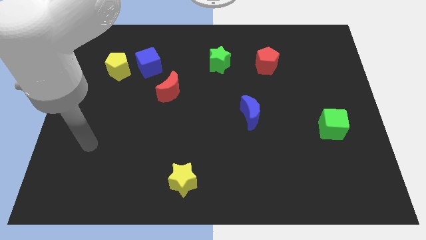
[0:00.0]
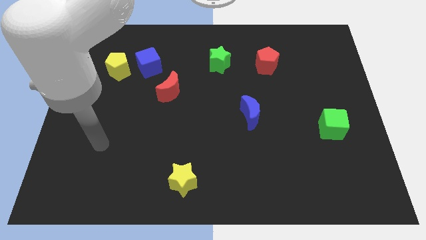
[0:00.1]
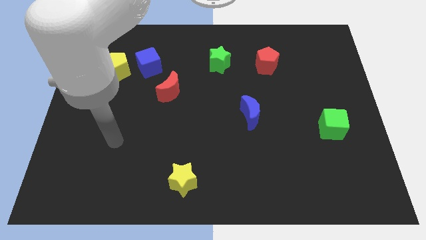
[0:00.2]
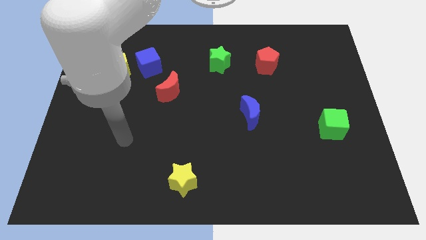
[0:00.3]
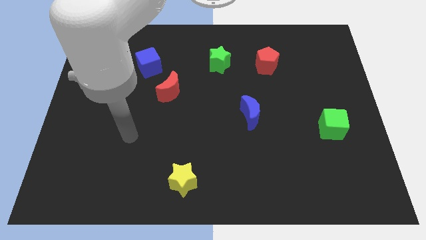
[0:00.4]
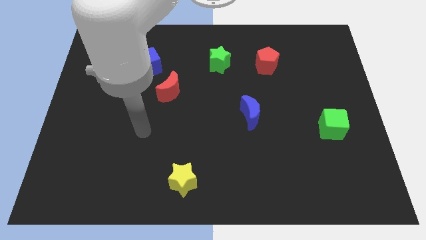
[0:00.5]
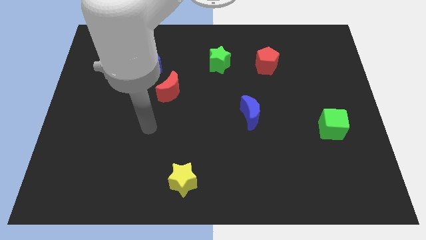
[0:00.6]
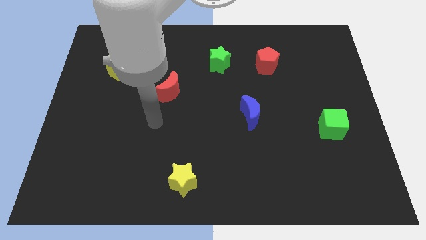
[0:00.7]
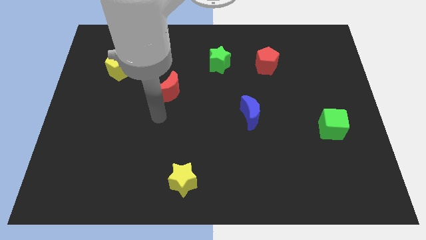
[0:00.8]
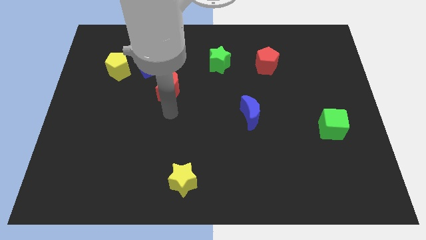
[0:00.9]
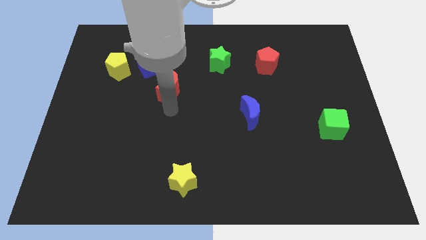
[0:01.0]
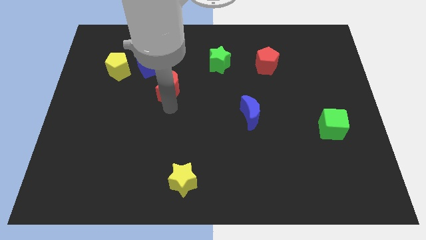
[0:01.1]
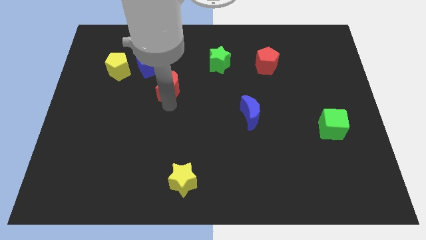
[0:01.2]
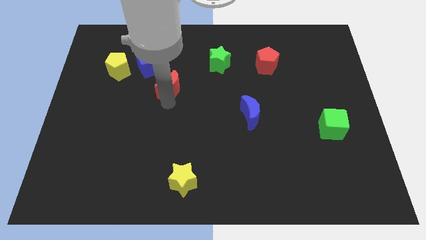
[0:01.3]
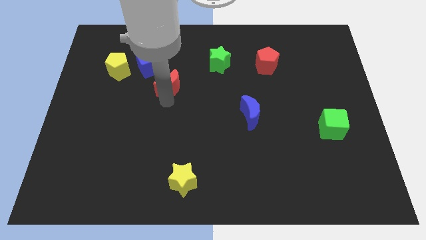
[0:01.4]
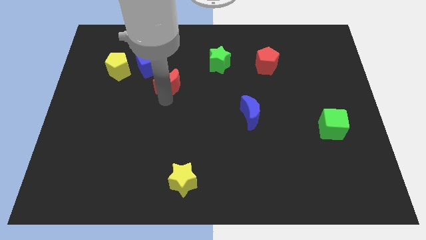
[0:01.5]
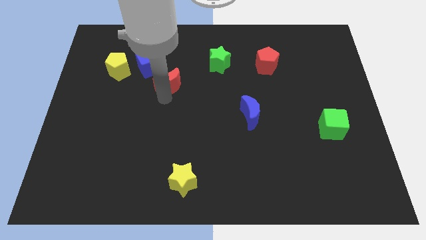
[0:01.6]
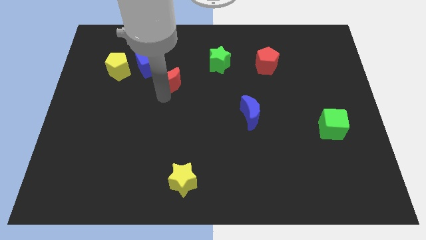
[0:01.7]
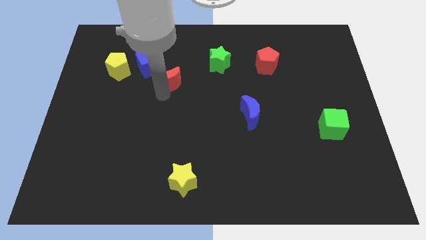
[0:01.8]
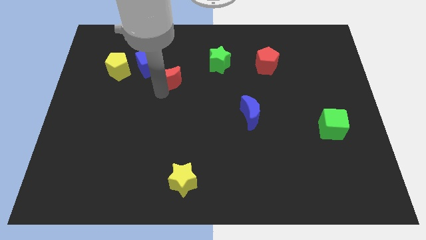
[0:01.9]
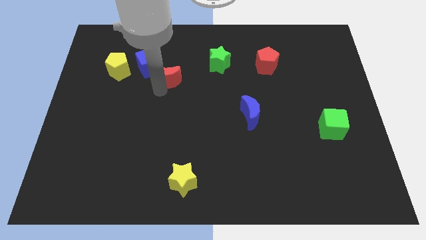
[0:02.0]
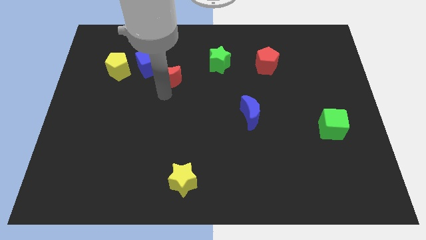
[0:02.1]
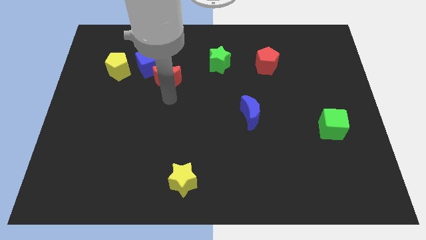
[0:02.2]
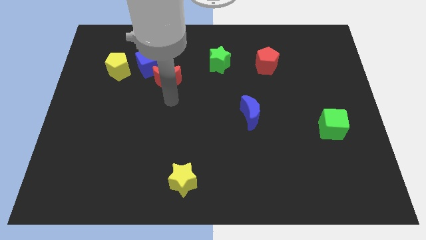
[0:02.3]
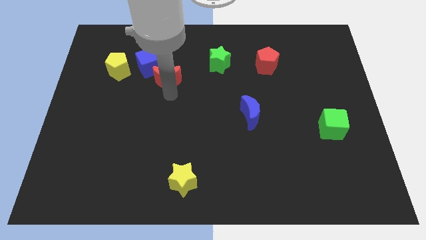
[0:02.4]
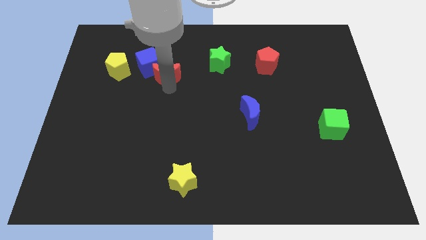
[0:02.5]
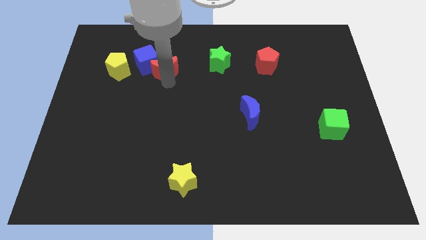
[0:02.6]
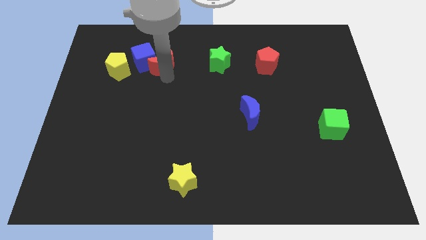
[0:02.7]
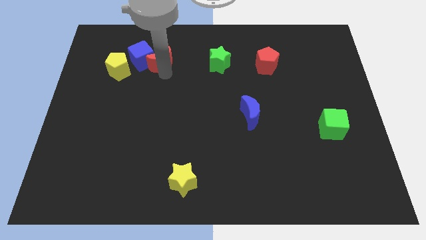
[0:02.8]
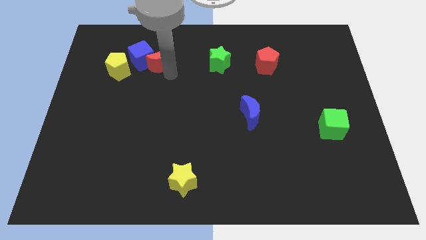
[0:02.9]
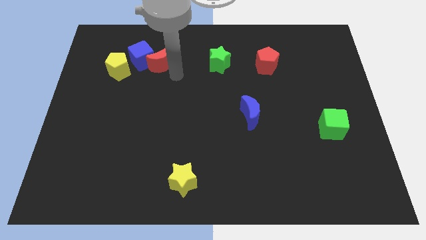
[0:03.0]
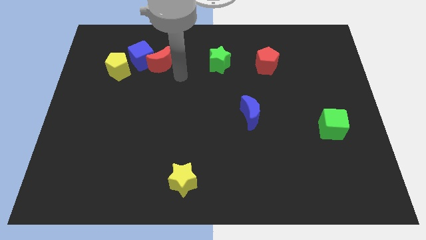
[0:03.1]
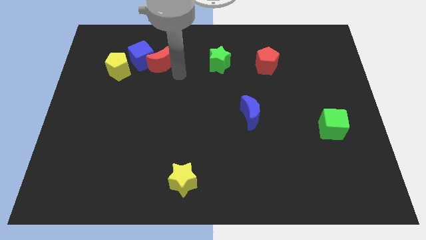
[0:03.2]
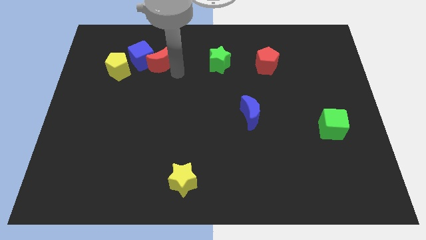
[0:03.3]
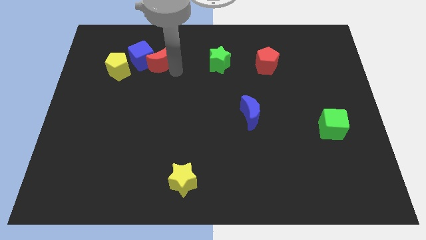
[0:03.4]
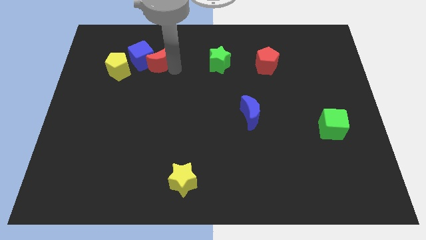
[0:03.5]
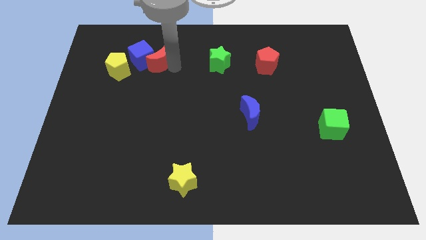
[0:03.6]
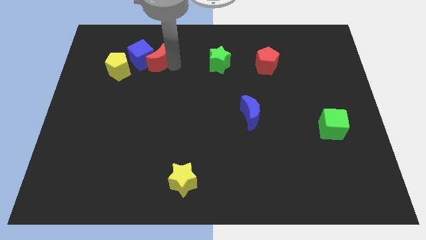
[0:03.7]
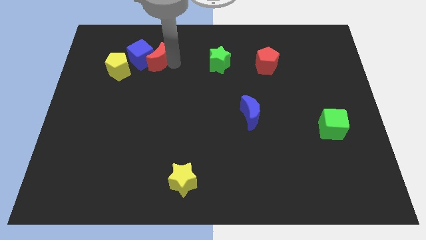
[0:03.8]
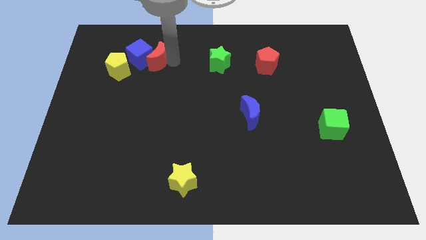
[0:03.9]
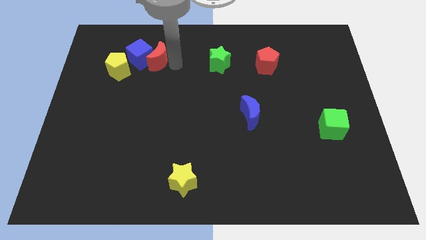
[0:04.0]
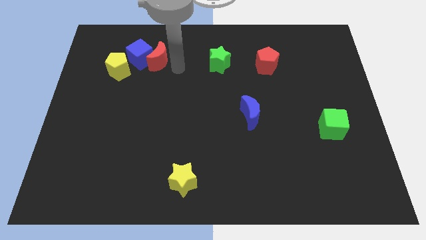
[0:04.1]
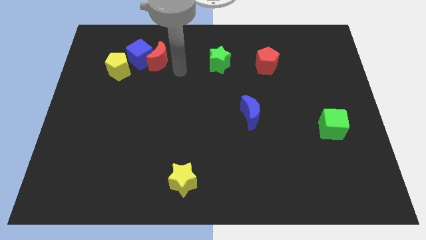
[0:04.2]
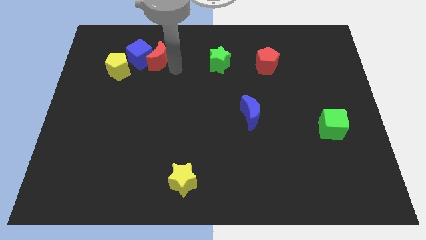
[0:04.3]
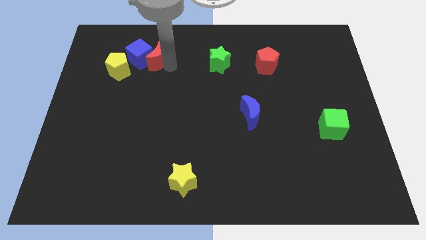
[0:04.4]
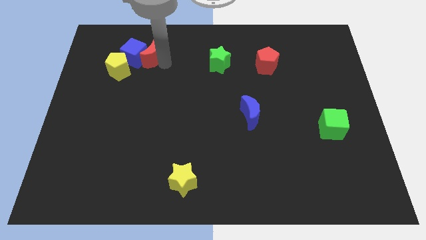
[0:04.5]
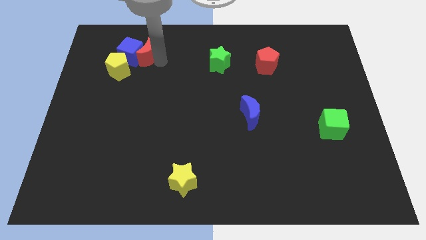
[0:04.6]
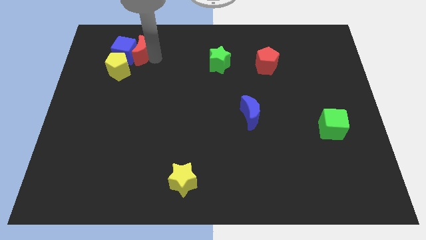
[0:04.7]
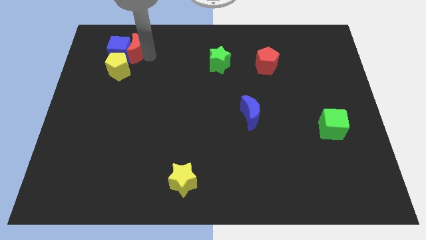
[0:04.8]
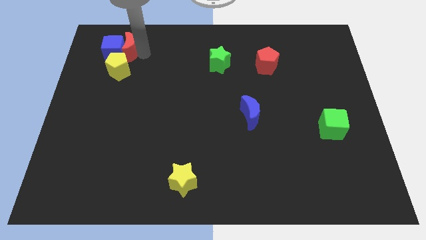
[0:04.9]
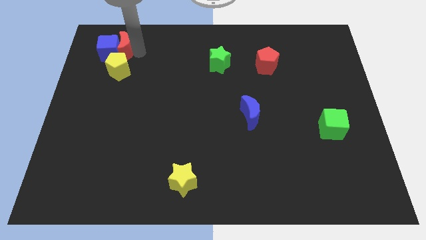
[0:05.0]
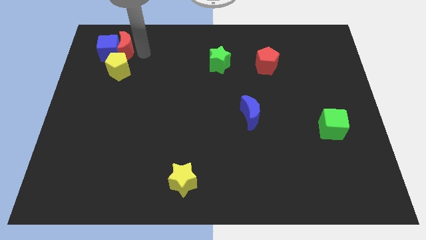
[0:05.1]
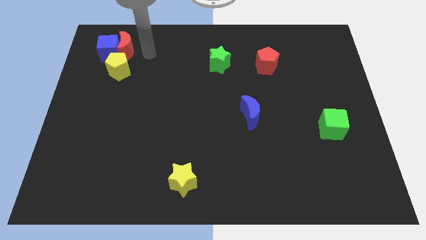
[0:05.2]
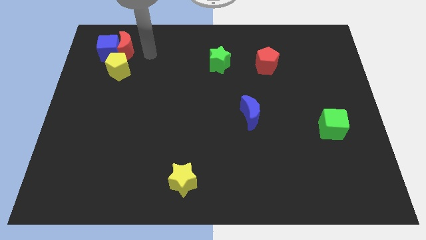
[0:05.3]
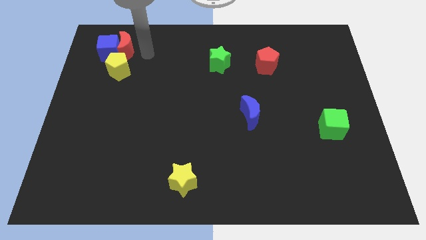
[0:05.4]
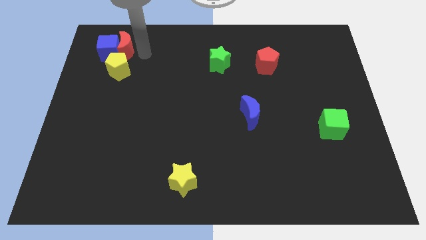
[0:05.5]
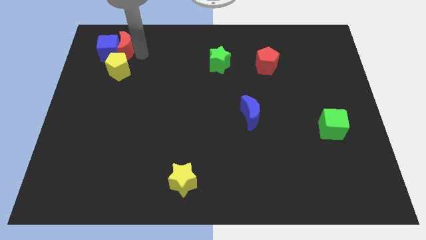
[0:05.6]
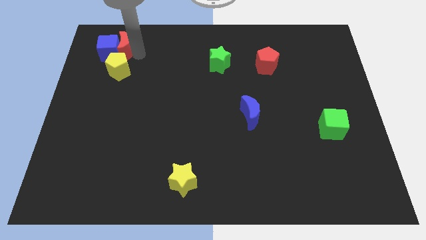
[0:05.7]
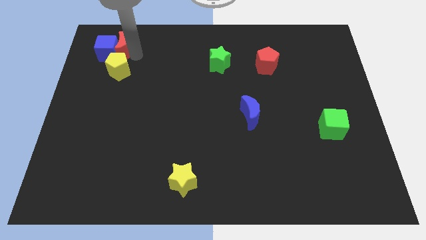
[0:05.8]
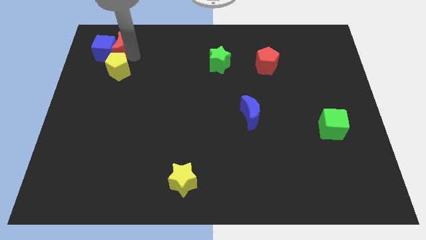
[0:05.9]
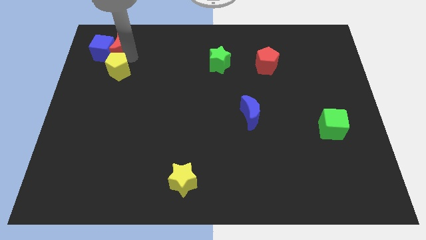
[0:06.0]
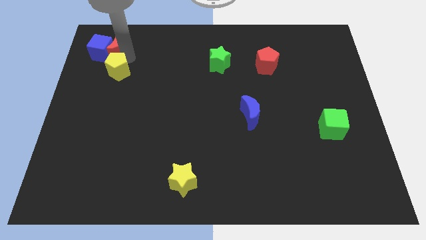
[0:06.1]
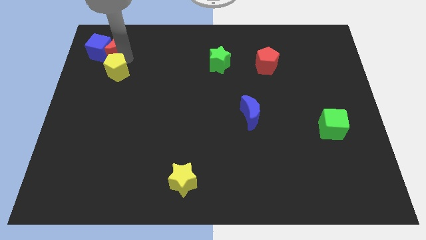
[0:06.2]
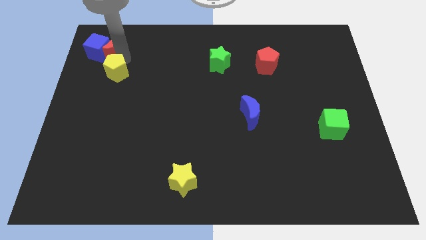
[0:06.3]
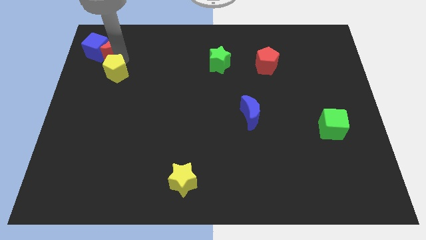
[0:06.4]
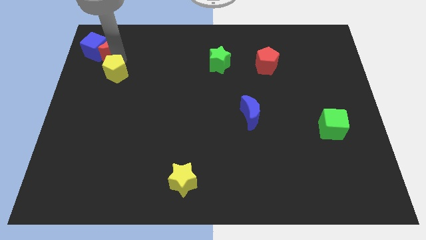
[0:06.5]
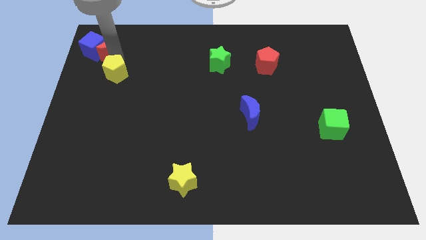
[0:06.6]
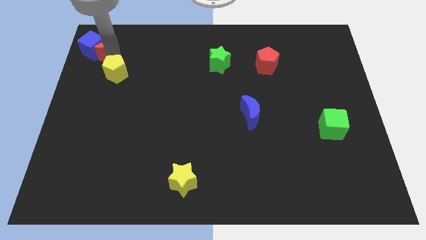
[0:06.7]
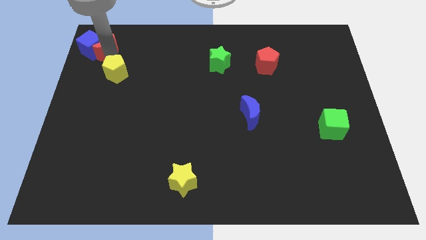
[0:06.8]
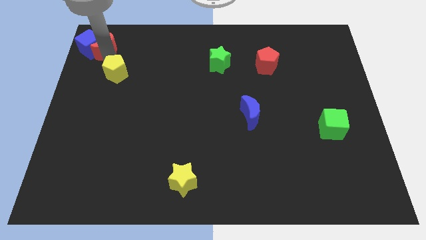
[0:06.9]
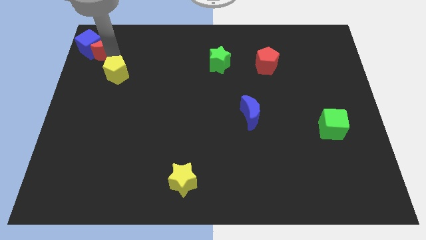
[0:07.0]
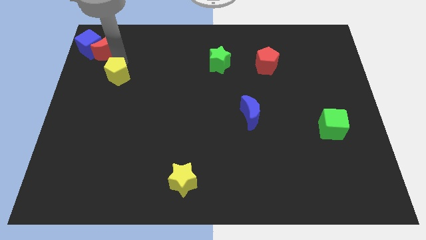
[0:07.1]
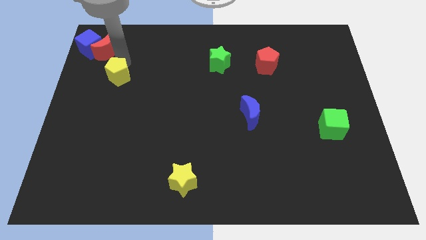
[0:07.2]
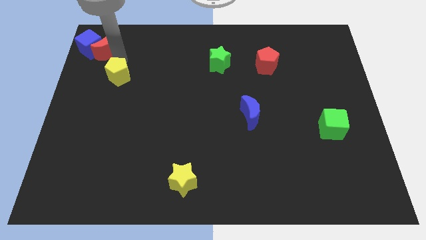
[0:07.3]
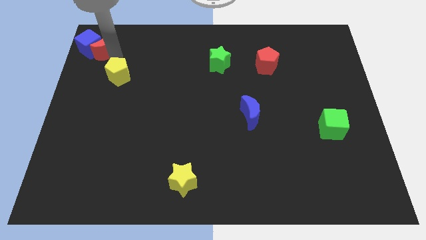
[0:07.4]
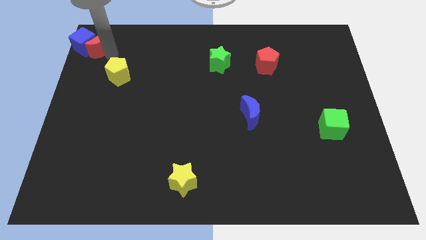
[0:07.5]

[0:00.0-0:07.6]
move the red moon to the top left corner
